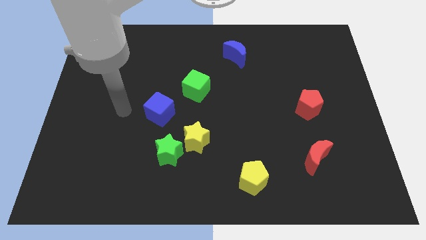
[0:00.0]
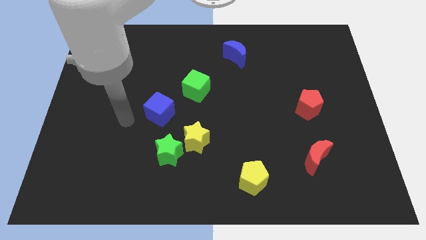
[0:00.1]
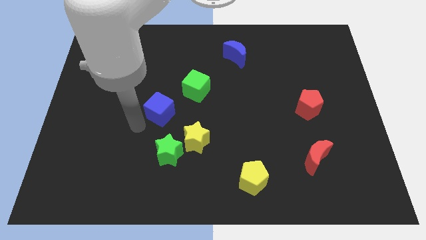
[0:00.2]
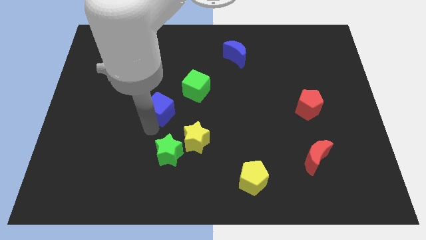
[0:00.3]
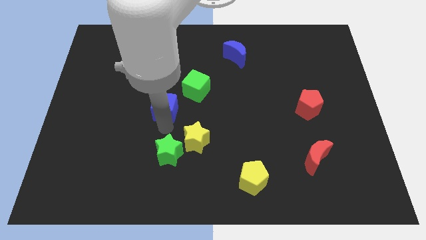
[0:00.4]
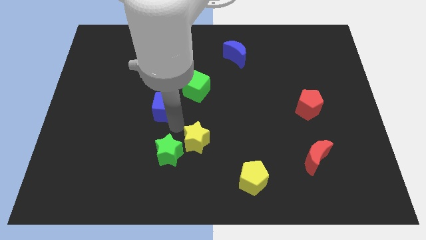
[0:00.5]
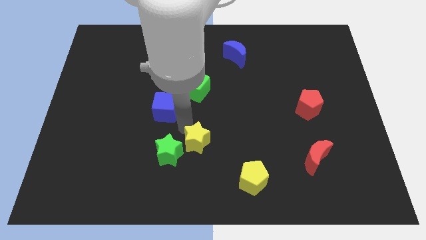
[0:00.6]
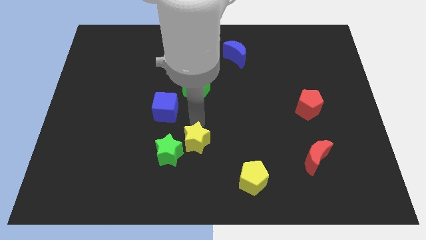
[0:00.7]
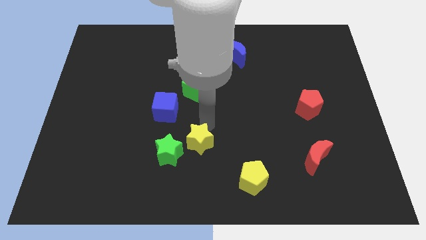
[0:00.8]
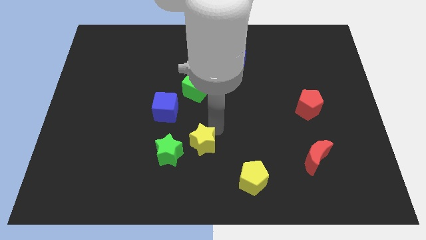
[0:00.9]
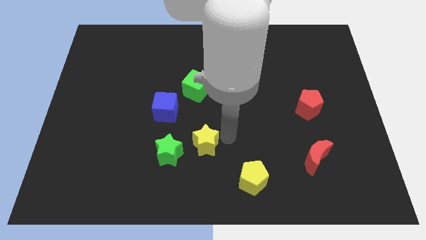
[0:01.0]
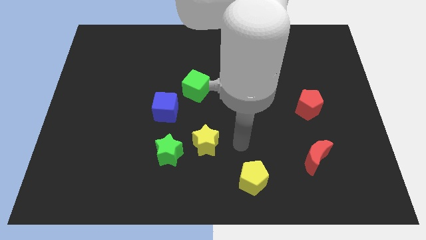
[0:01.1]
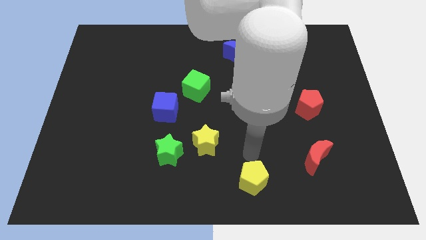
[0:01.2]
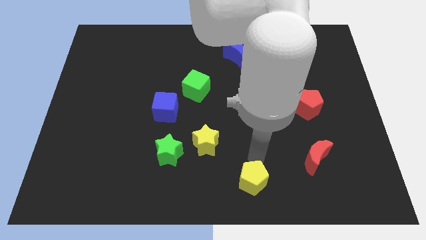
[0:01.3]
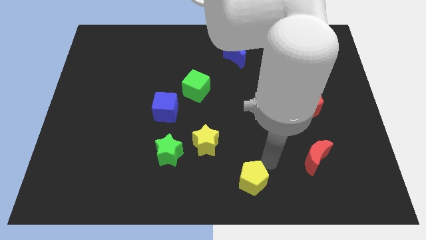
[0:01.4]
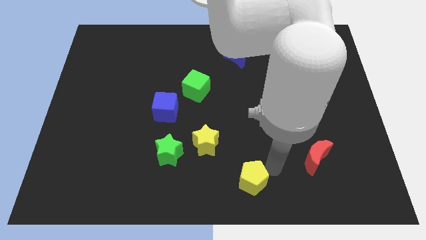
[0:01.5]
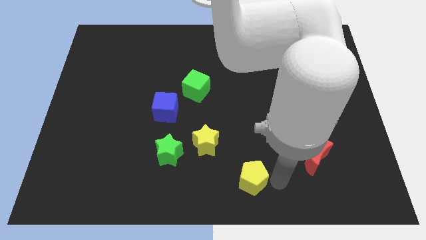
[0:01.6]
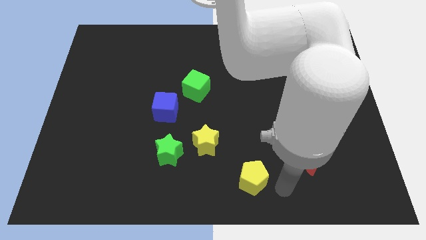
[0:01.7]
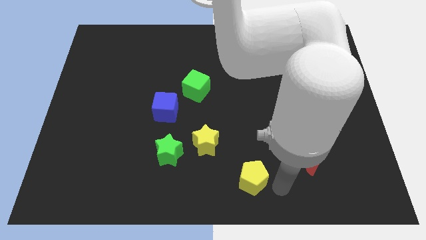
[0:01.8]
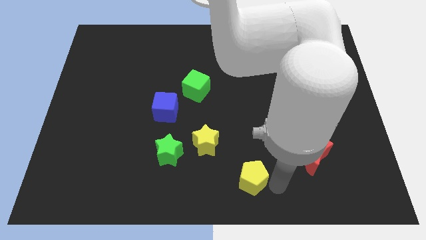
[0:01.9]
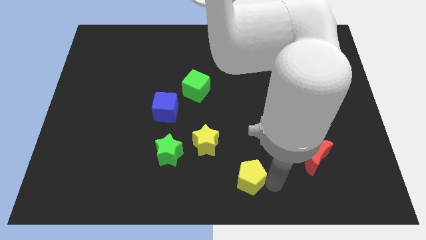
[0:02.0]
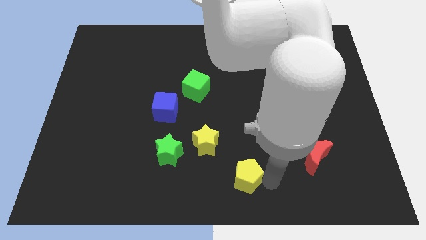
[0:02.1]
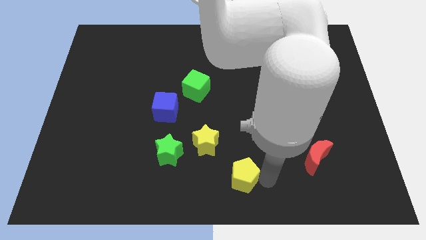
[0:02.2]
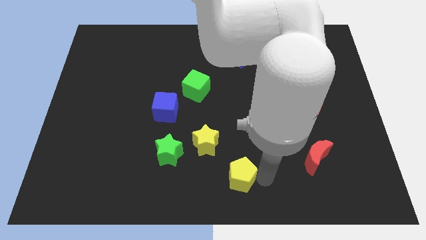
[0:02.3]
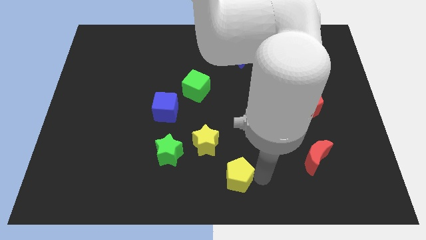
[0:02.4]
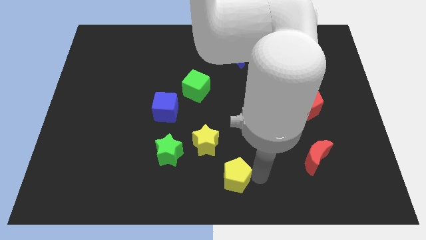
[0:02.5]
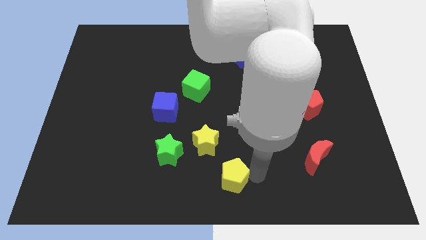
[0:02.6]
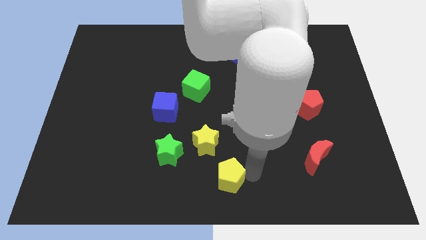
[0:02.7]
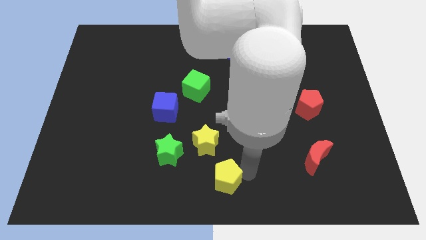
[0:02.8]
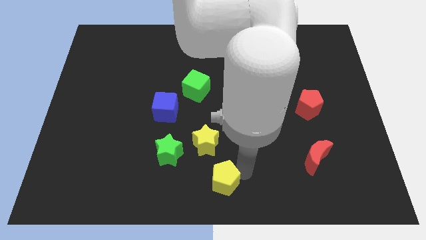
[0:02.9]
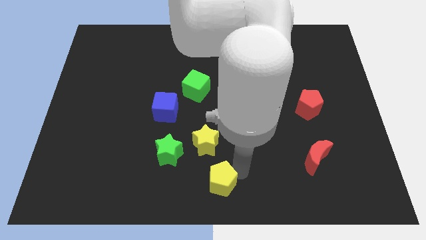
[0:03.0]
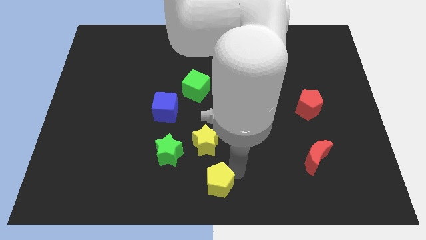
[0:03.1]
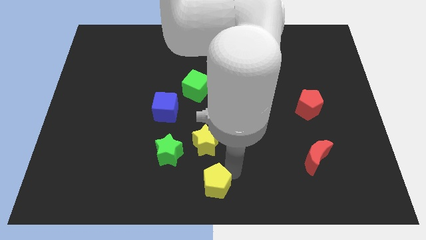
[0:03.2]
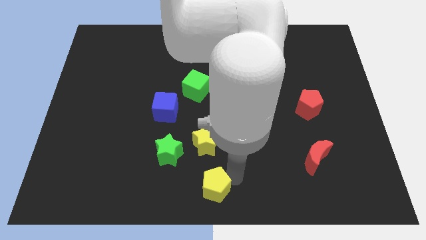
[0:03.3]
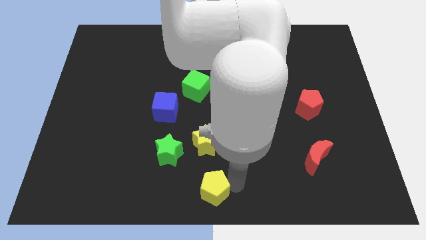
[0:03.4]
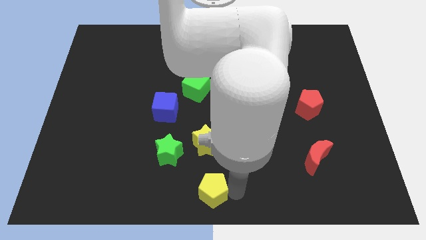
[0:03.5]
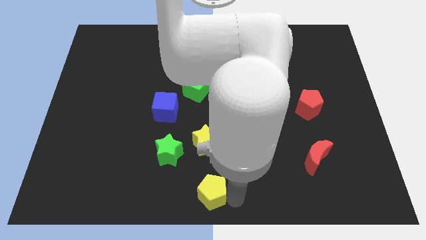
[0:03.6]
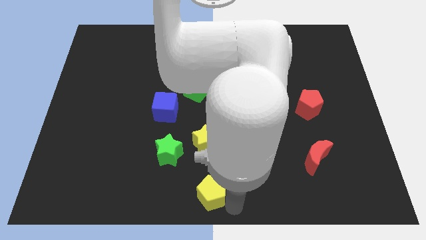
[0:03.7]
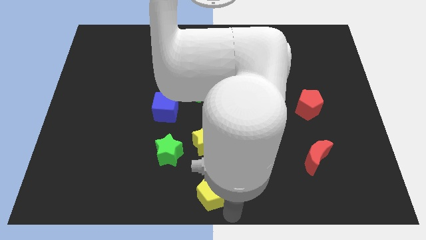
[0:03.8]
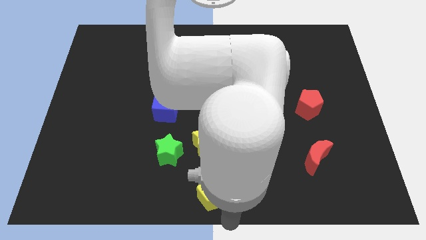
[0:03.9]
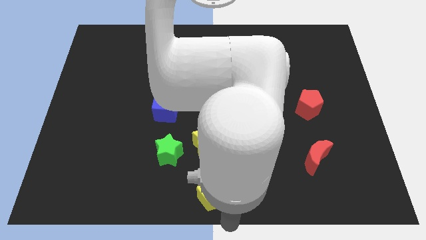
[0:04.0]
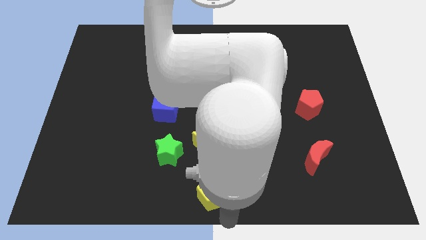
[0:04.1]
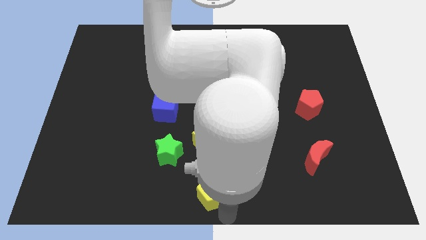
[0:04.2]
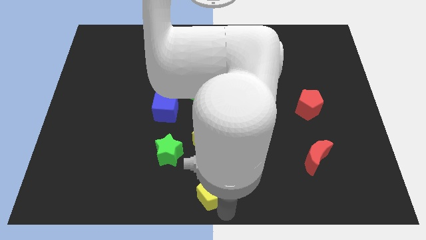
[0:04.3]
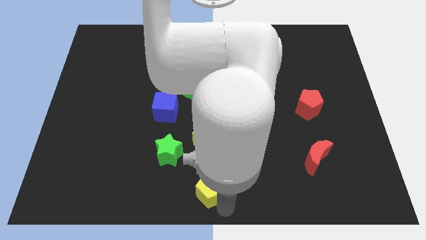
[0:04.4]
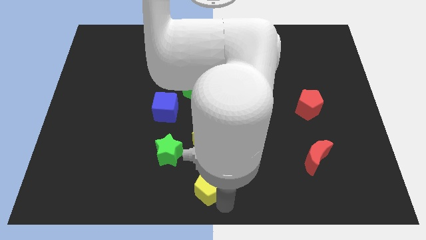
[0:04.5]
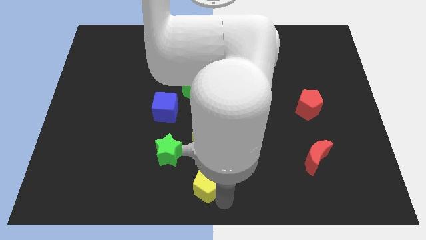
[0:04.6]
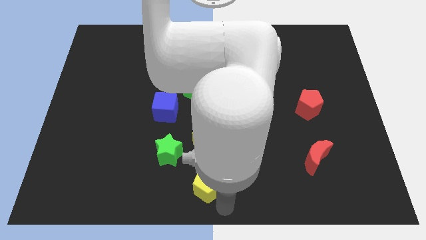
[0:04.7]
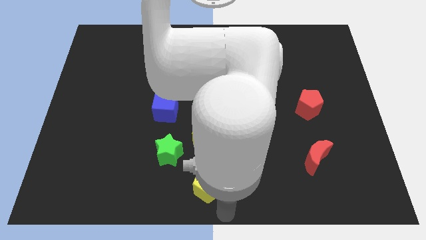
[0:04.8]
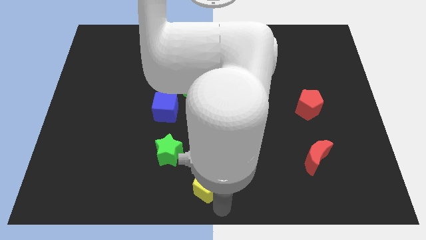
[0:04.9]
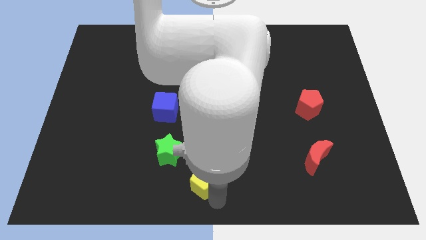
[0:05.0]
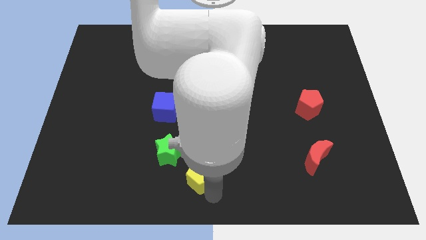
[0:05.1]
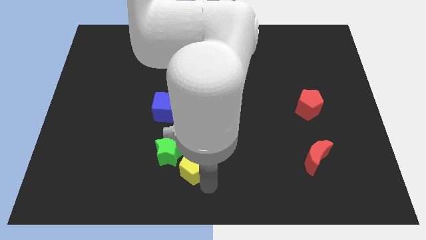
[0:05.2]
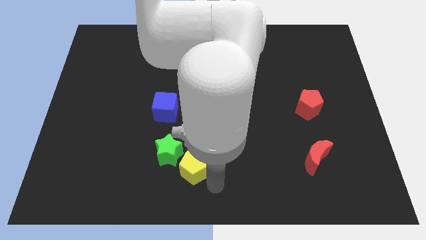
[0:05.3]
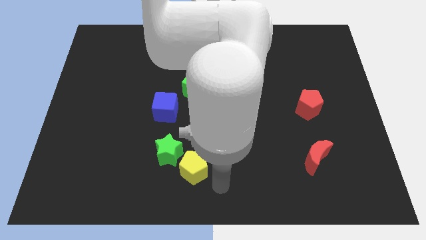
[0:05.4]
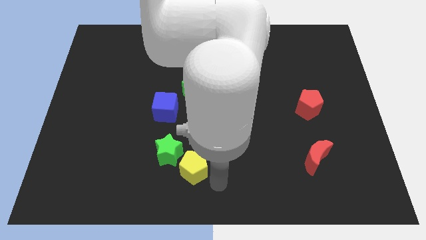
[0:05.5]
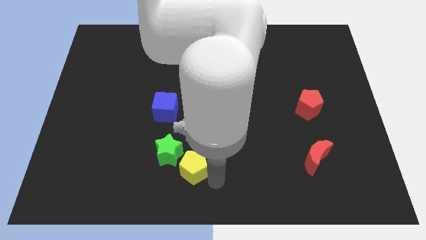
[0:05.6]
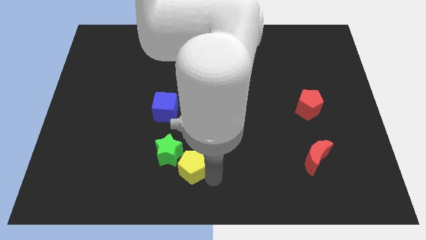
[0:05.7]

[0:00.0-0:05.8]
move the yellow pentagon to the green star

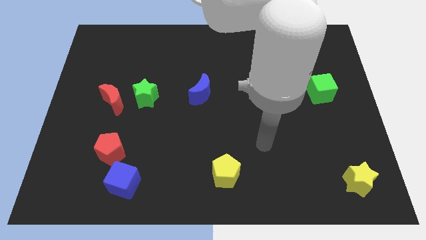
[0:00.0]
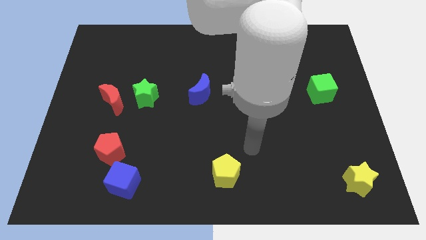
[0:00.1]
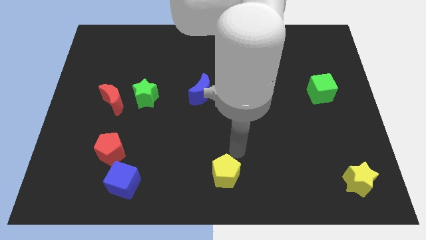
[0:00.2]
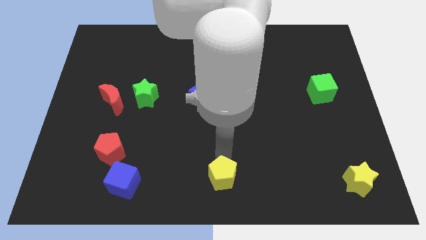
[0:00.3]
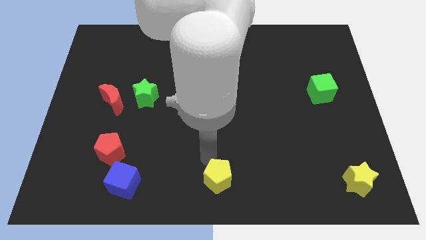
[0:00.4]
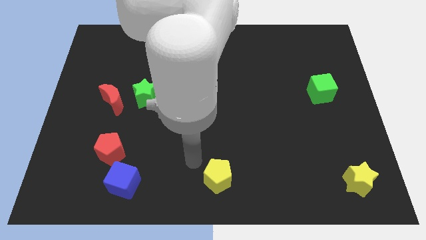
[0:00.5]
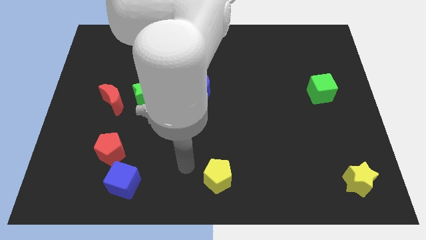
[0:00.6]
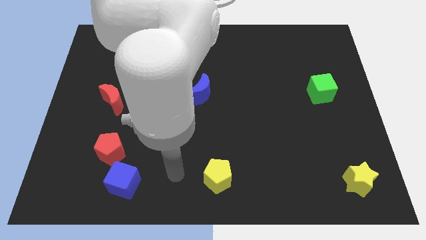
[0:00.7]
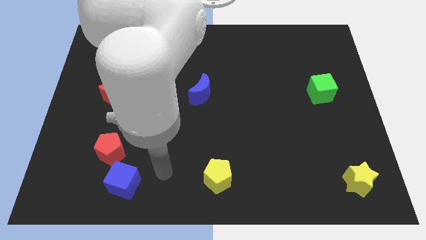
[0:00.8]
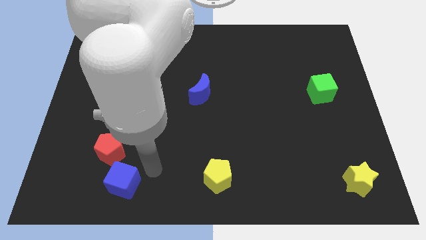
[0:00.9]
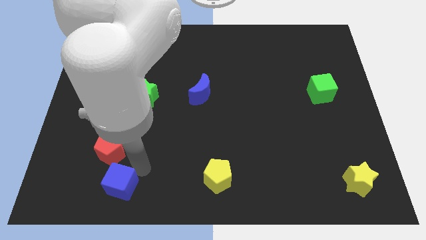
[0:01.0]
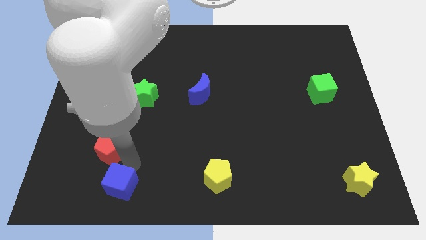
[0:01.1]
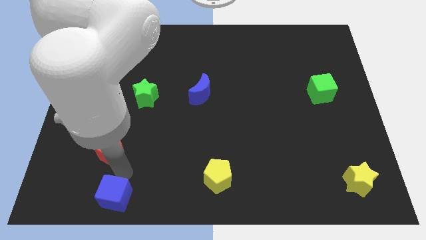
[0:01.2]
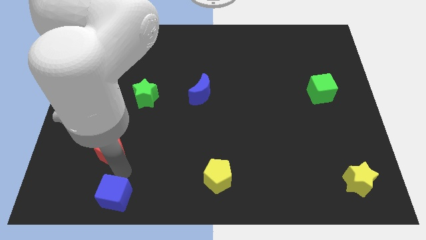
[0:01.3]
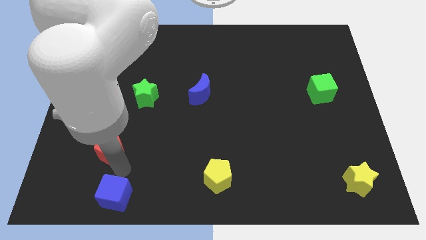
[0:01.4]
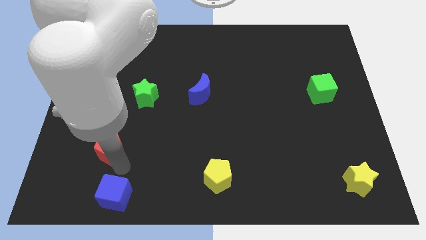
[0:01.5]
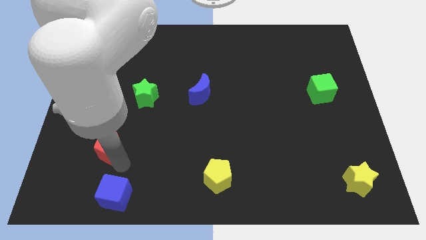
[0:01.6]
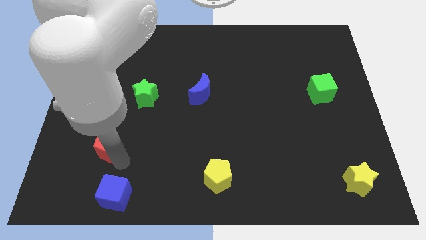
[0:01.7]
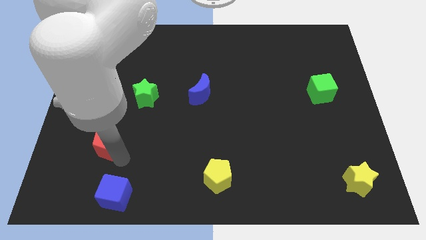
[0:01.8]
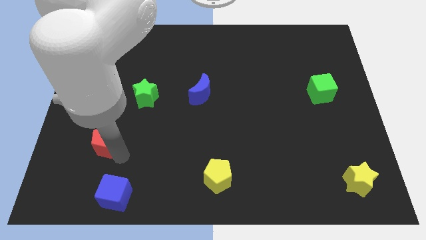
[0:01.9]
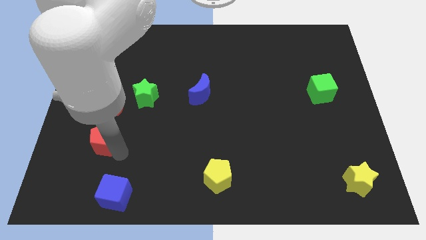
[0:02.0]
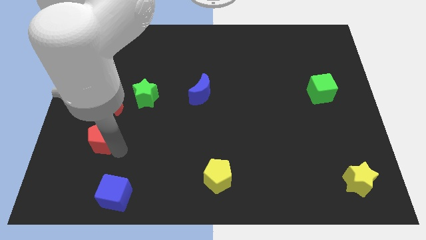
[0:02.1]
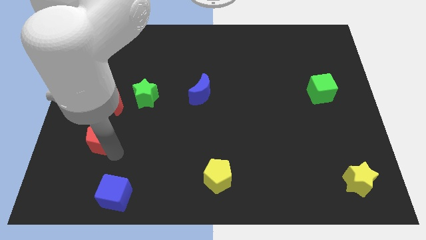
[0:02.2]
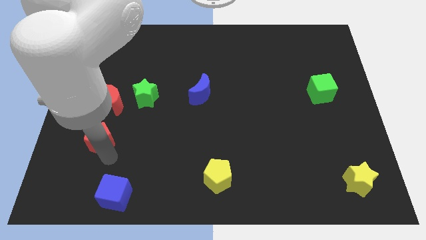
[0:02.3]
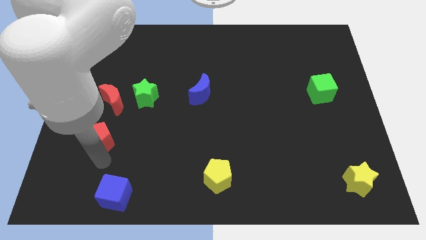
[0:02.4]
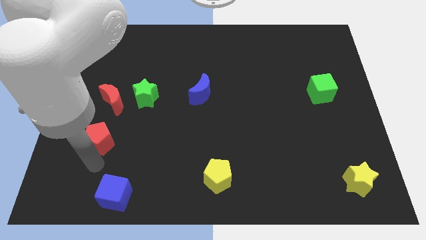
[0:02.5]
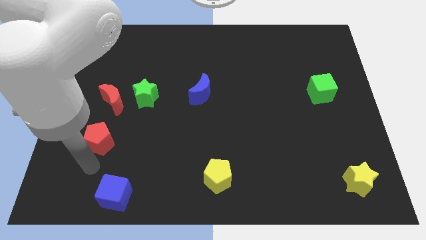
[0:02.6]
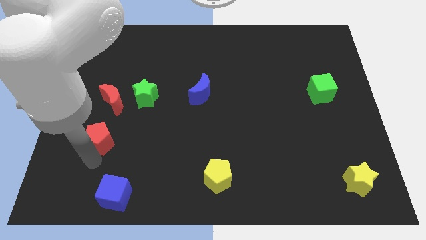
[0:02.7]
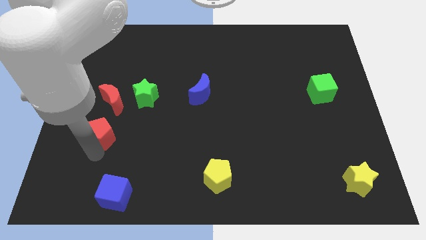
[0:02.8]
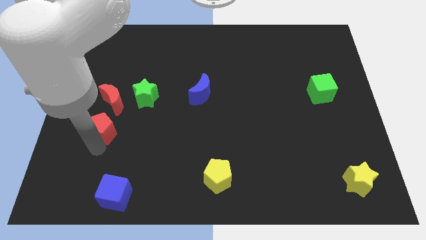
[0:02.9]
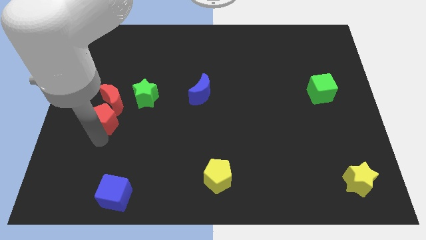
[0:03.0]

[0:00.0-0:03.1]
put the red pentagon towards the red moon
